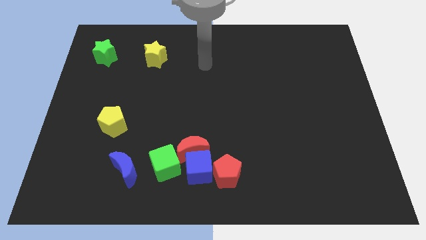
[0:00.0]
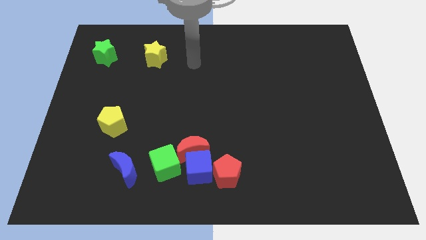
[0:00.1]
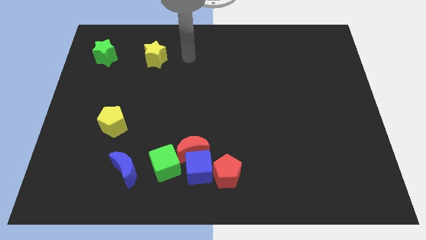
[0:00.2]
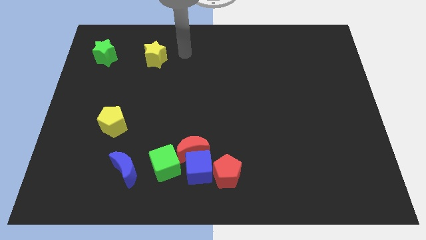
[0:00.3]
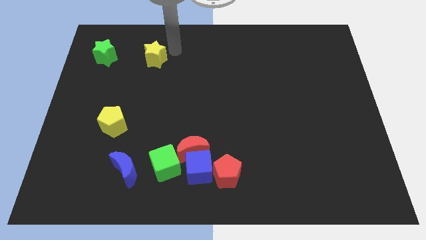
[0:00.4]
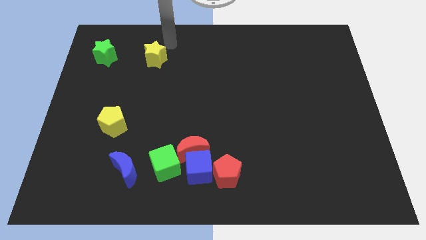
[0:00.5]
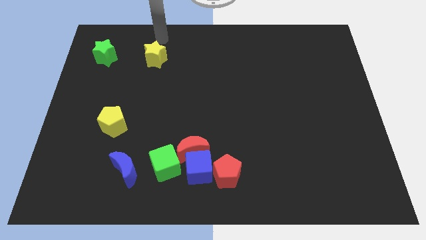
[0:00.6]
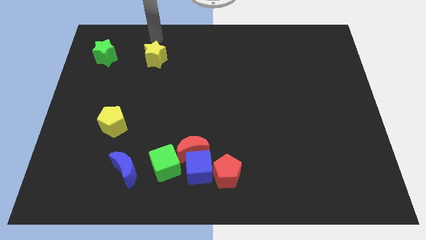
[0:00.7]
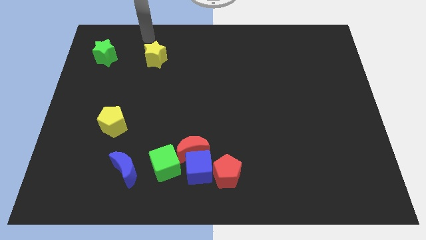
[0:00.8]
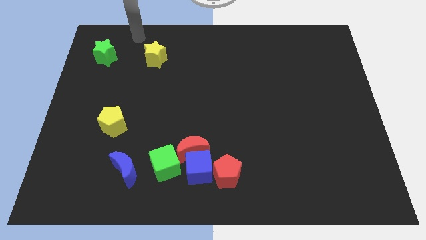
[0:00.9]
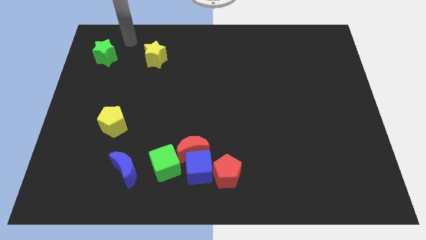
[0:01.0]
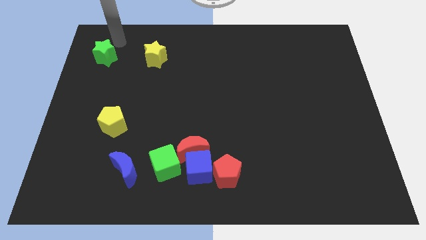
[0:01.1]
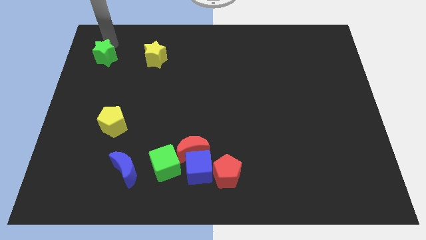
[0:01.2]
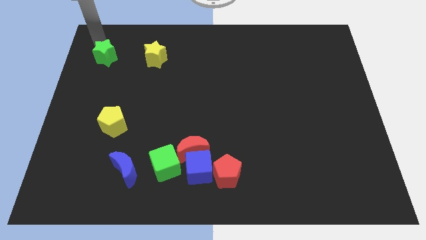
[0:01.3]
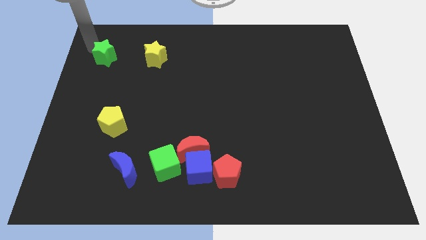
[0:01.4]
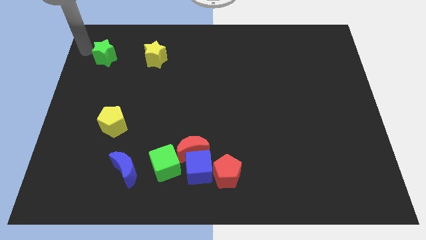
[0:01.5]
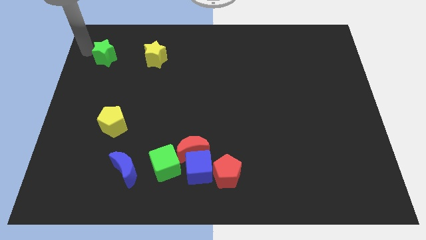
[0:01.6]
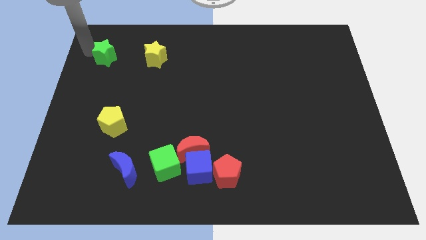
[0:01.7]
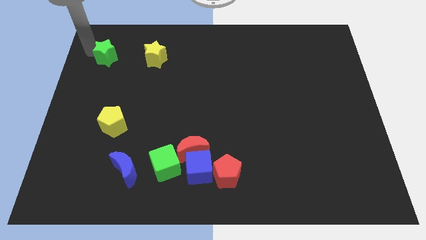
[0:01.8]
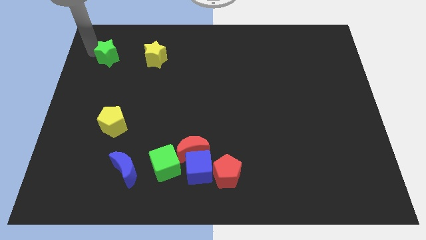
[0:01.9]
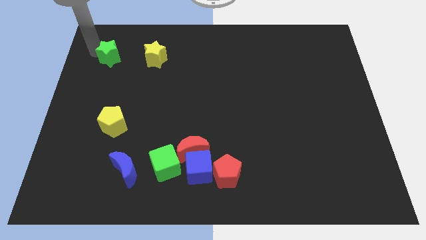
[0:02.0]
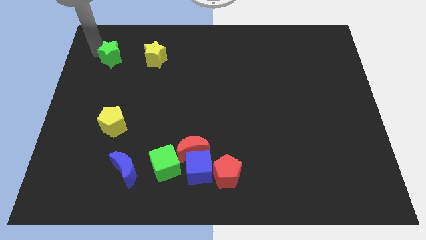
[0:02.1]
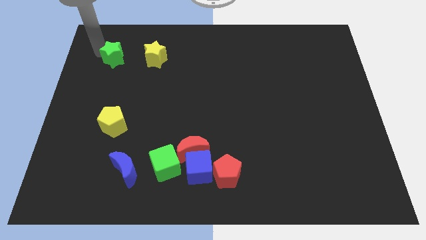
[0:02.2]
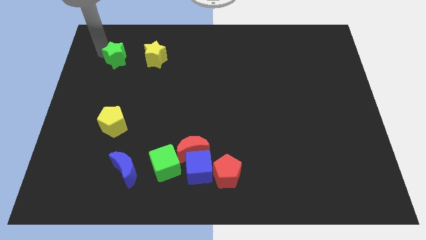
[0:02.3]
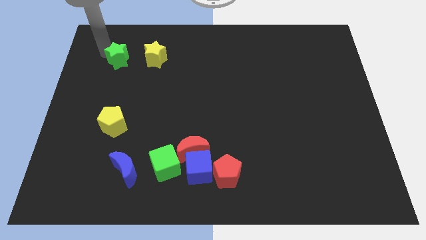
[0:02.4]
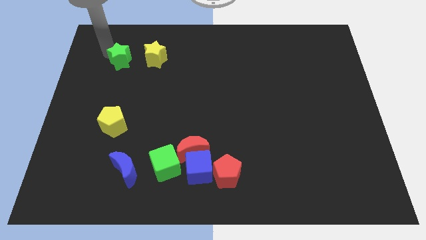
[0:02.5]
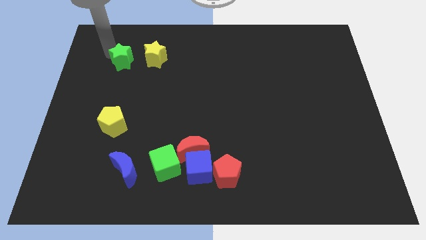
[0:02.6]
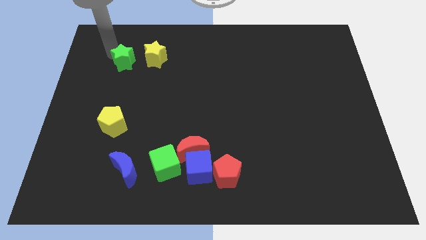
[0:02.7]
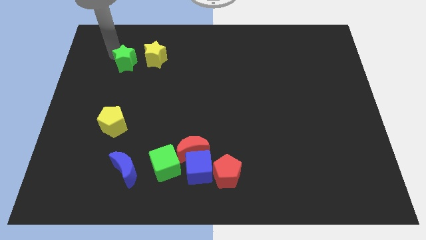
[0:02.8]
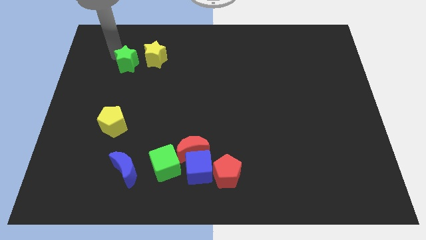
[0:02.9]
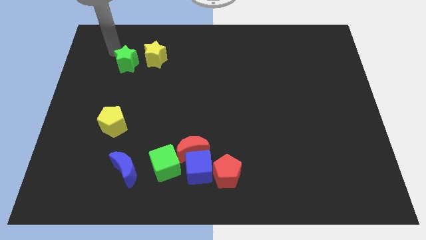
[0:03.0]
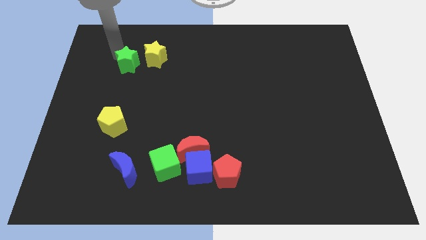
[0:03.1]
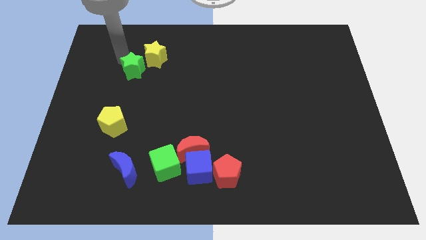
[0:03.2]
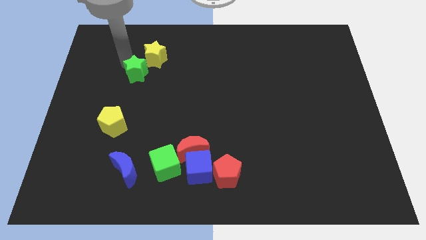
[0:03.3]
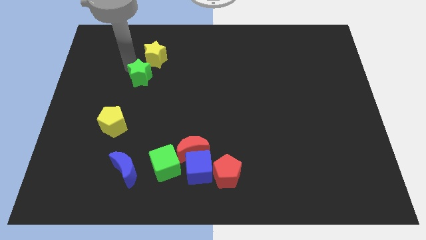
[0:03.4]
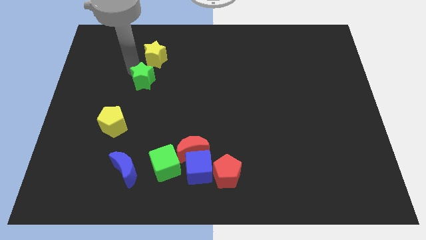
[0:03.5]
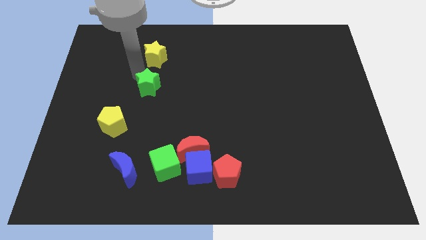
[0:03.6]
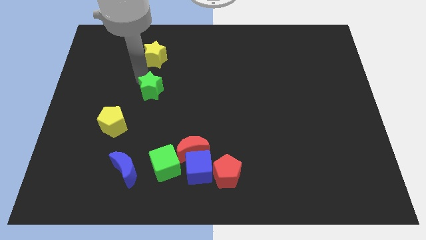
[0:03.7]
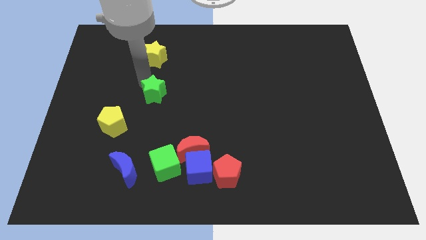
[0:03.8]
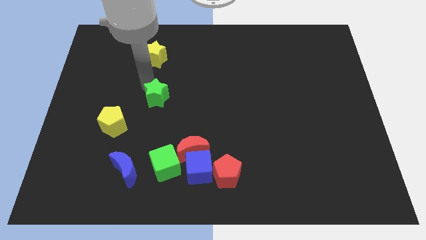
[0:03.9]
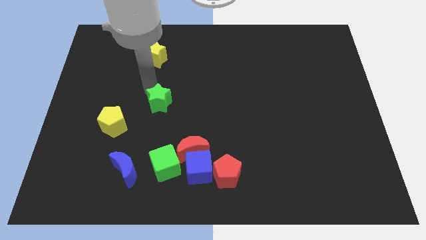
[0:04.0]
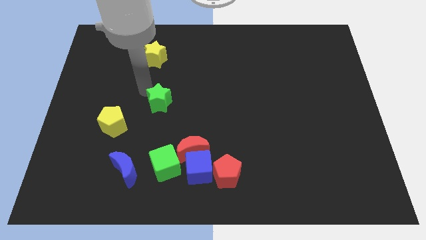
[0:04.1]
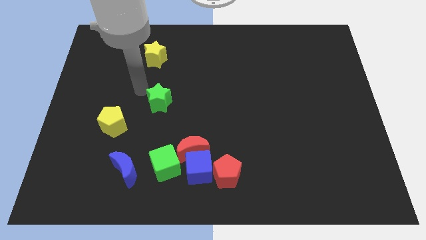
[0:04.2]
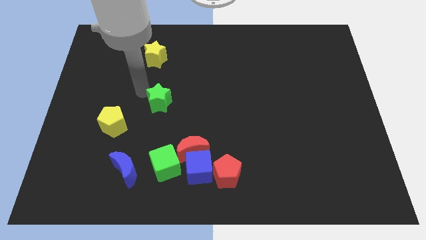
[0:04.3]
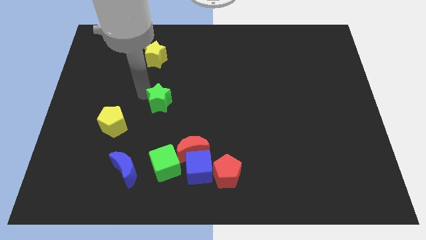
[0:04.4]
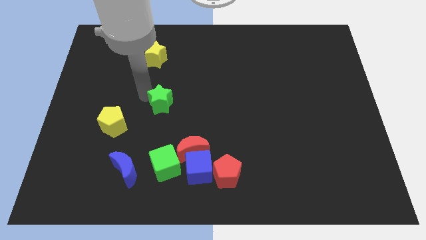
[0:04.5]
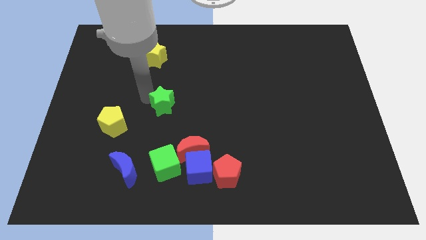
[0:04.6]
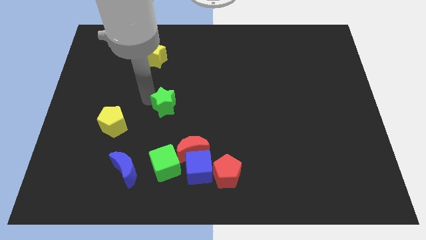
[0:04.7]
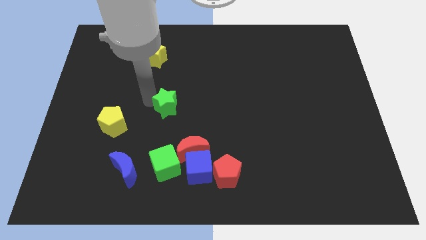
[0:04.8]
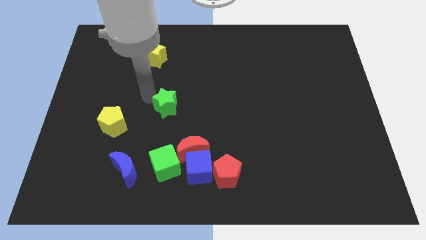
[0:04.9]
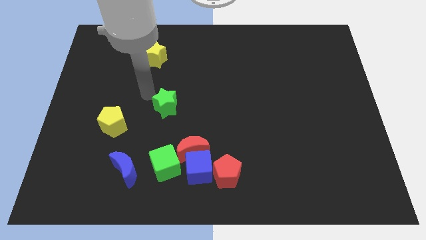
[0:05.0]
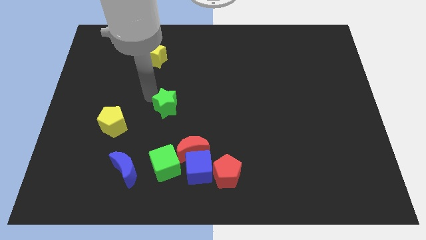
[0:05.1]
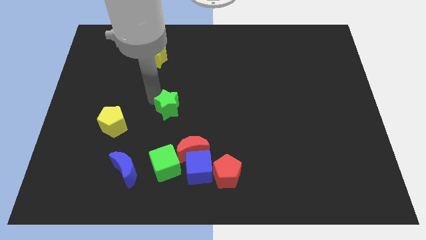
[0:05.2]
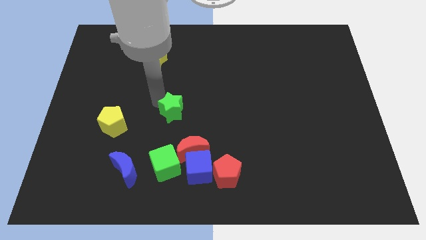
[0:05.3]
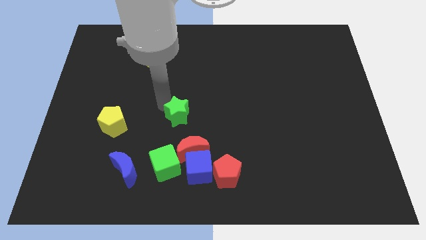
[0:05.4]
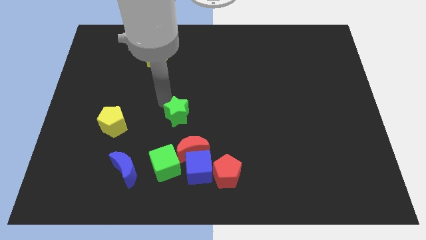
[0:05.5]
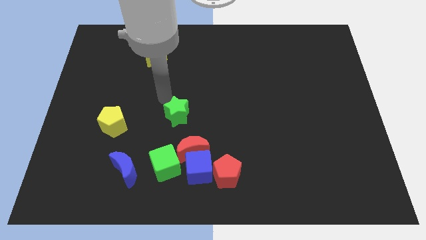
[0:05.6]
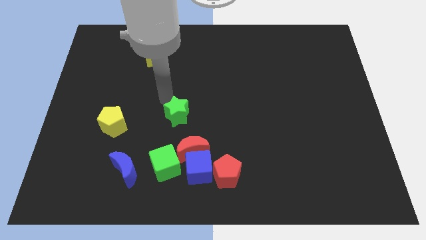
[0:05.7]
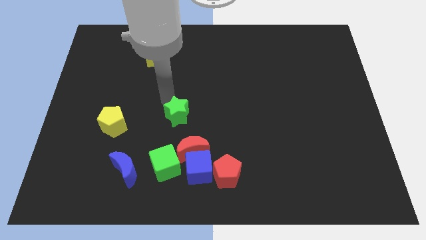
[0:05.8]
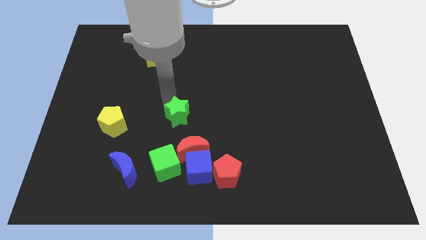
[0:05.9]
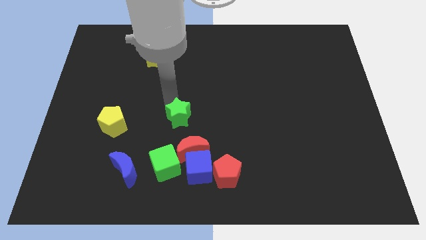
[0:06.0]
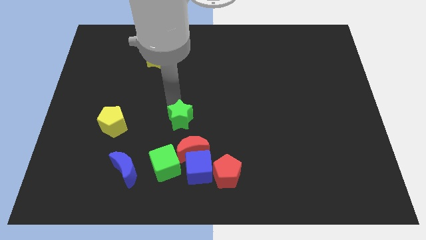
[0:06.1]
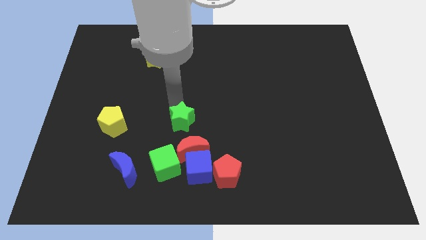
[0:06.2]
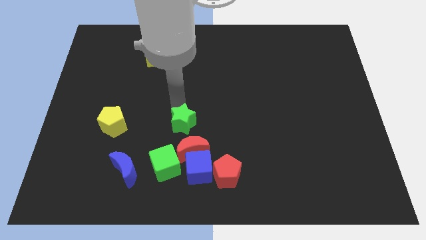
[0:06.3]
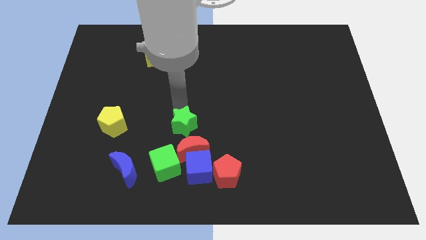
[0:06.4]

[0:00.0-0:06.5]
move the green star to the top right of the green cube

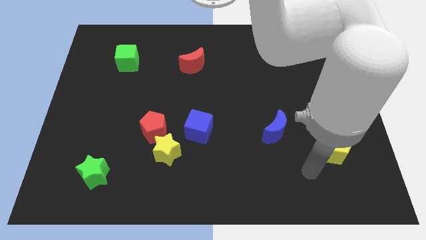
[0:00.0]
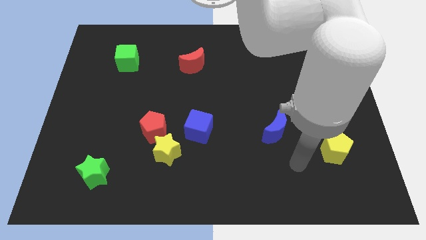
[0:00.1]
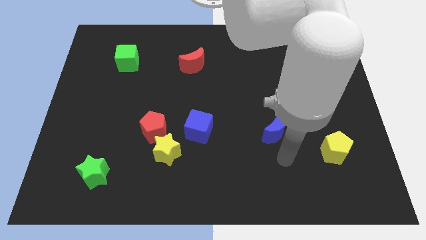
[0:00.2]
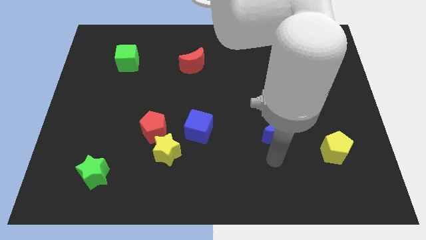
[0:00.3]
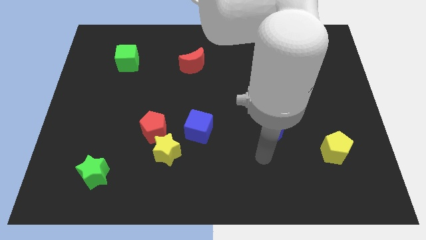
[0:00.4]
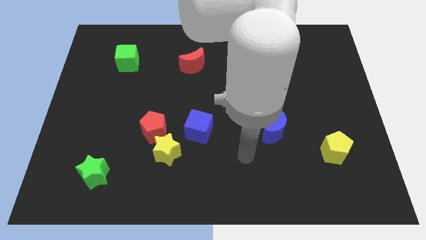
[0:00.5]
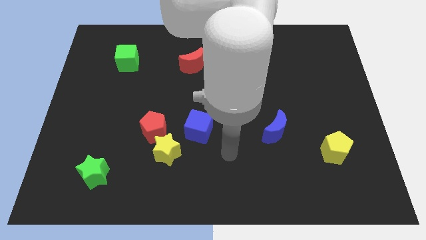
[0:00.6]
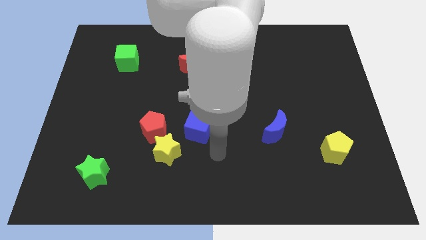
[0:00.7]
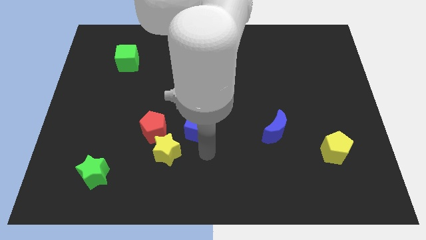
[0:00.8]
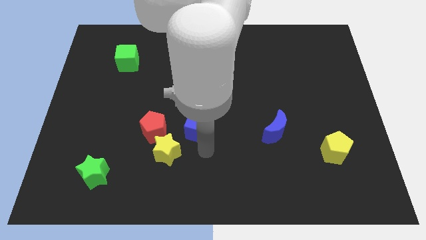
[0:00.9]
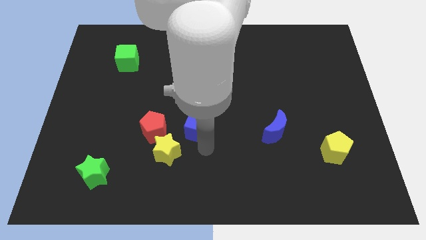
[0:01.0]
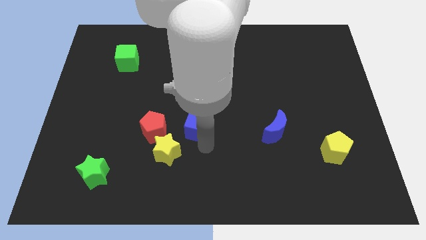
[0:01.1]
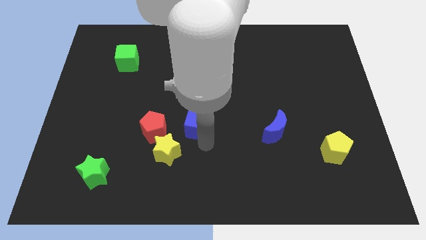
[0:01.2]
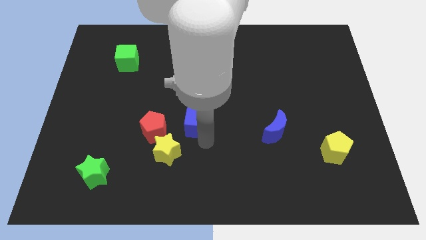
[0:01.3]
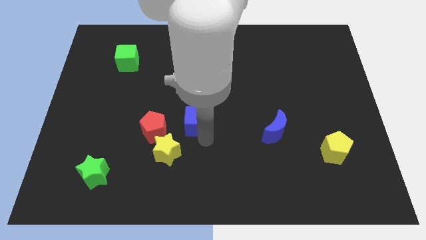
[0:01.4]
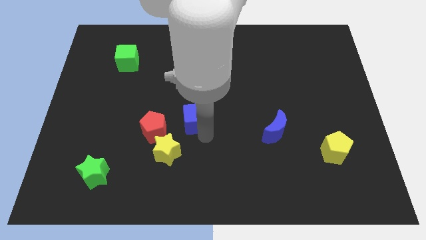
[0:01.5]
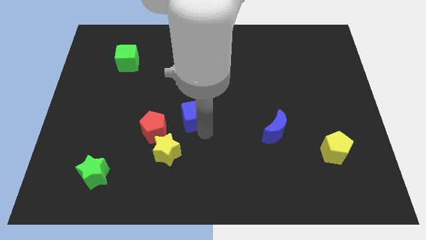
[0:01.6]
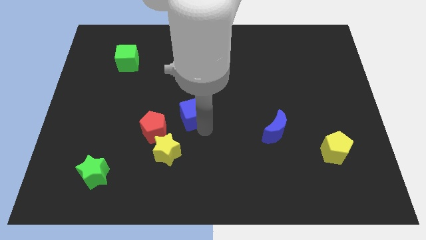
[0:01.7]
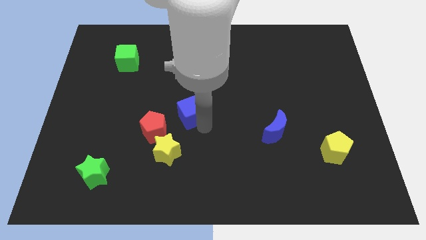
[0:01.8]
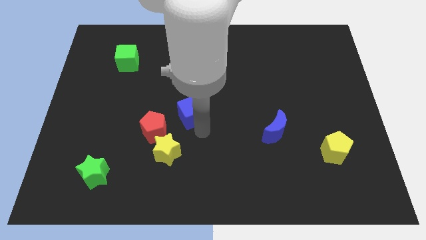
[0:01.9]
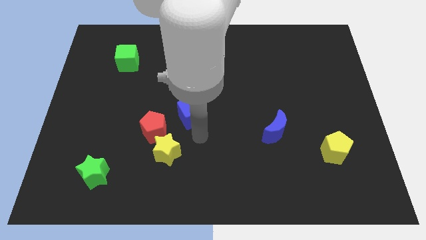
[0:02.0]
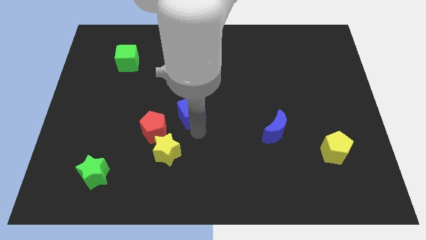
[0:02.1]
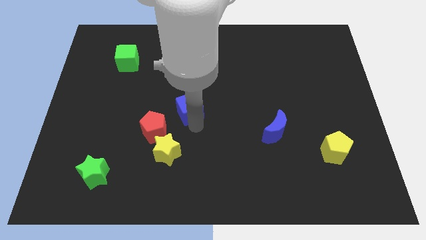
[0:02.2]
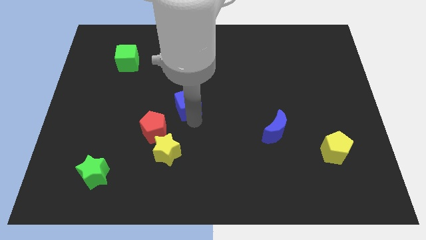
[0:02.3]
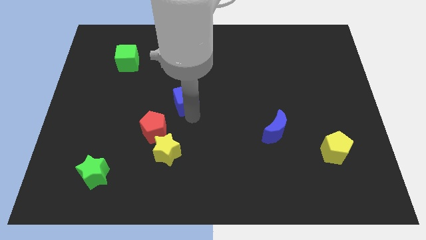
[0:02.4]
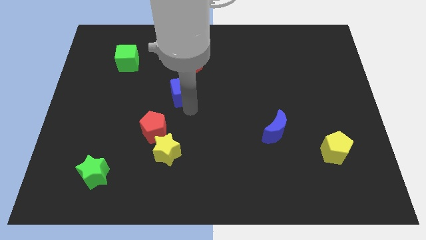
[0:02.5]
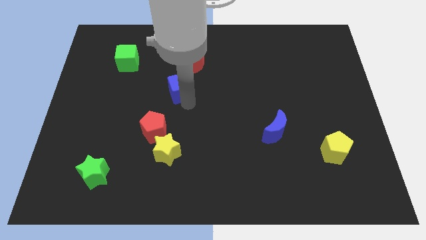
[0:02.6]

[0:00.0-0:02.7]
push the blue cube to the bottom left of the red moon
